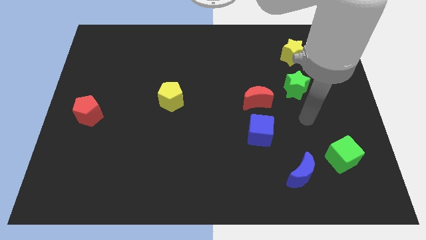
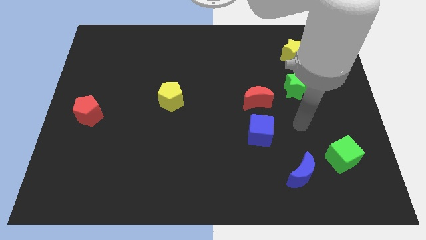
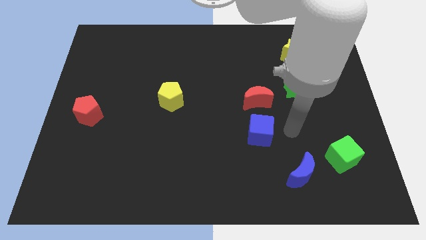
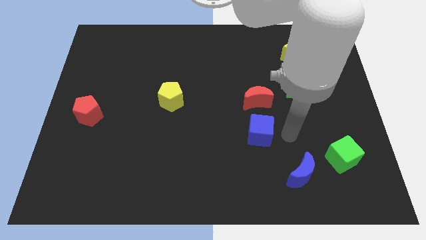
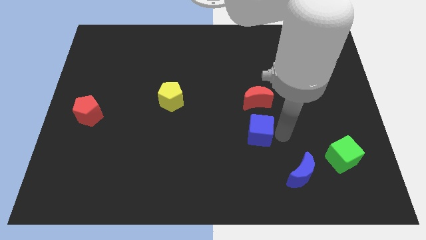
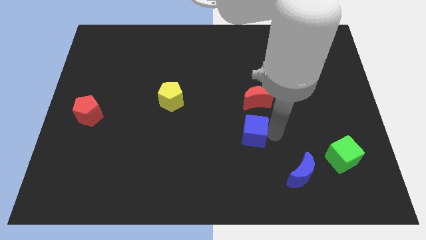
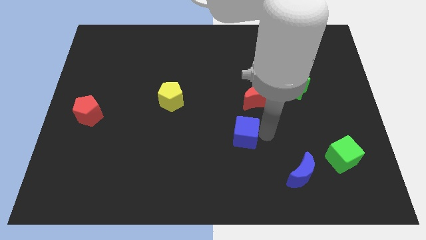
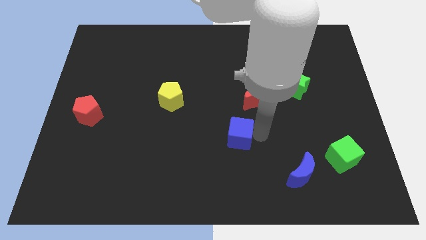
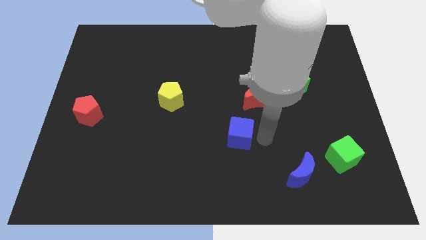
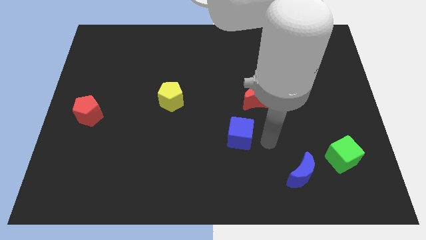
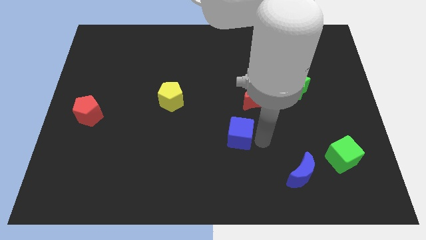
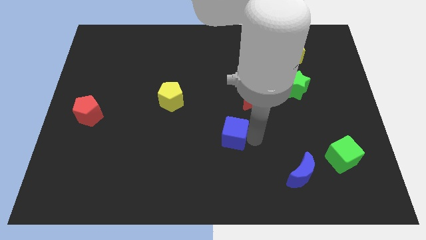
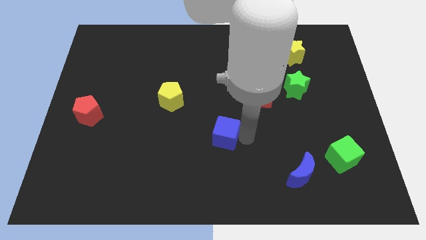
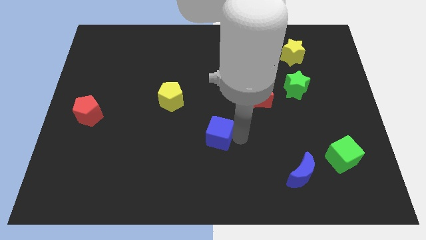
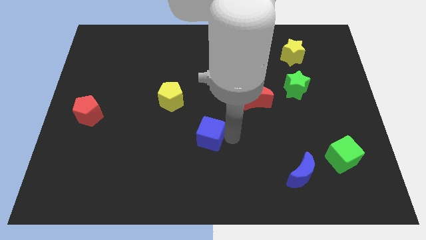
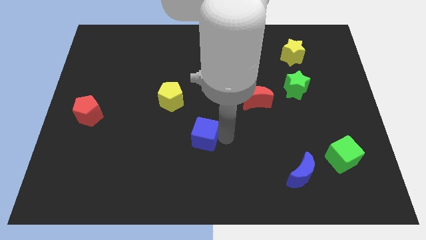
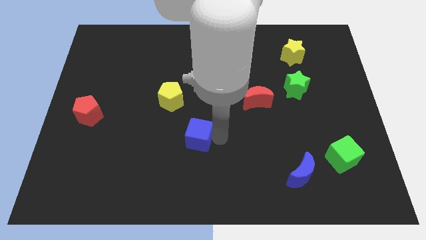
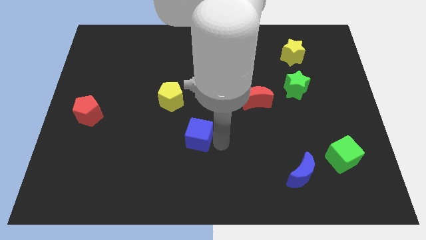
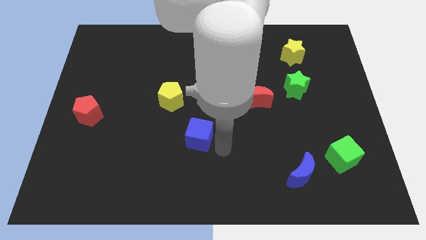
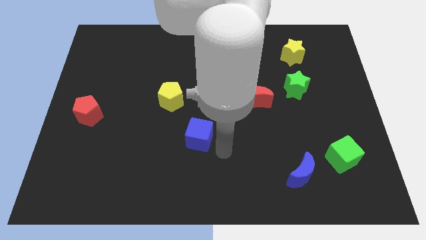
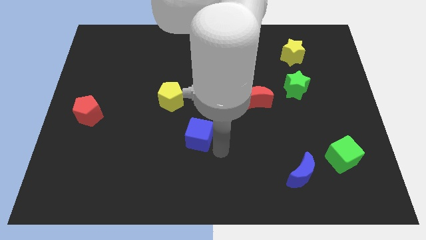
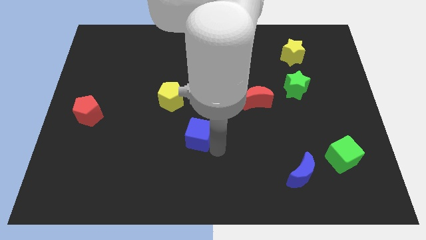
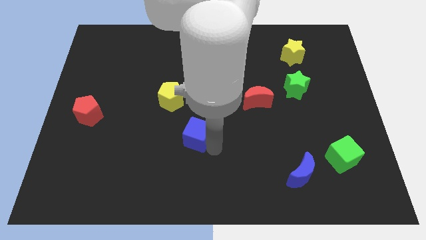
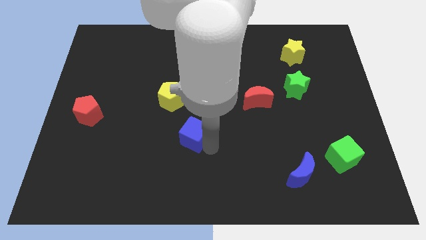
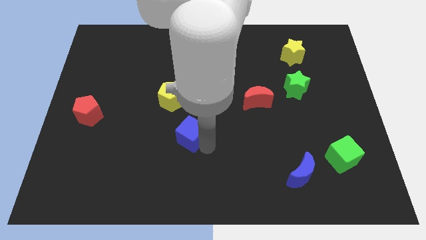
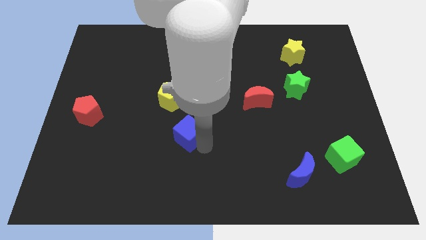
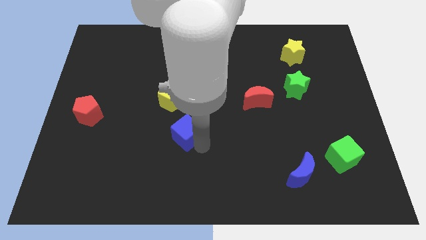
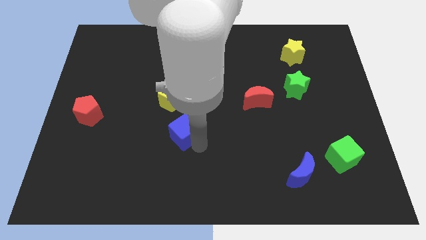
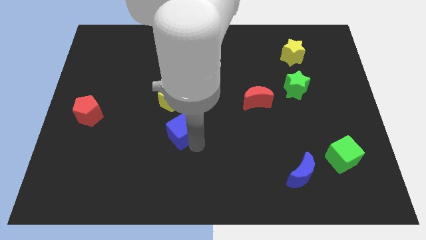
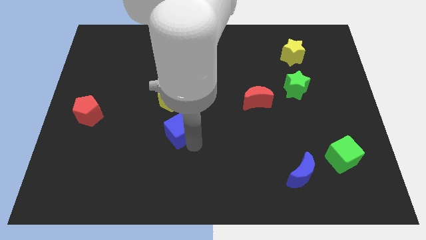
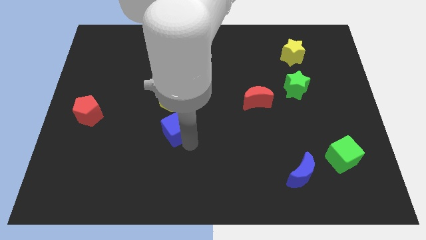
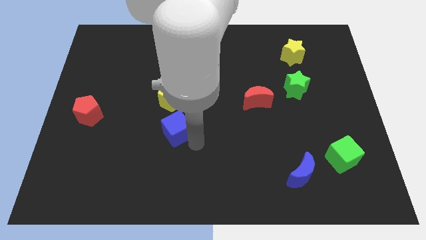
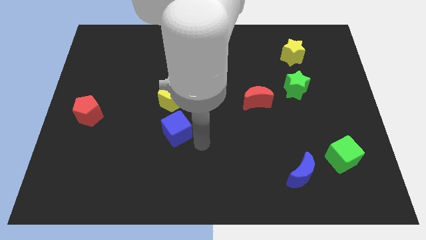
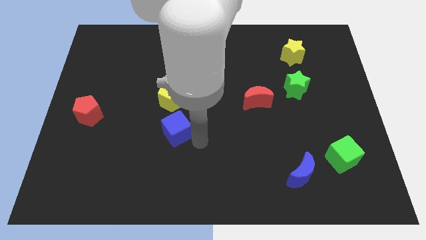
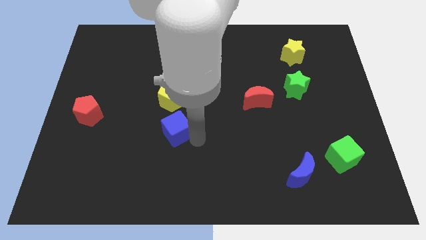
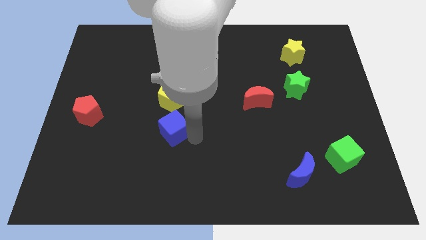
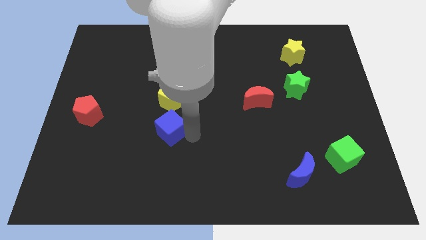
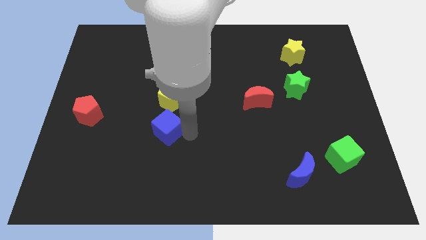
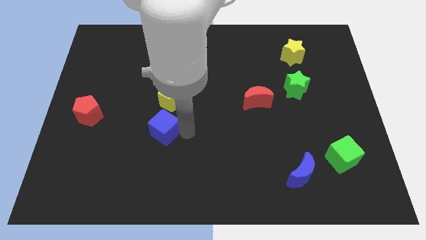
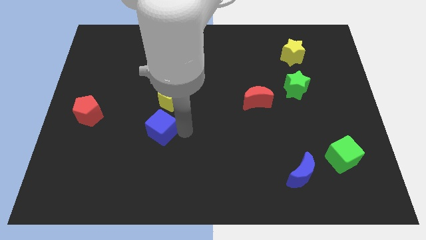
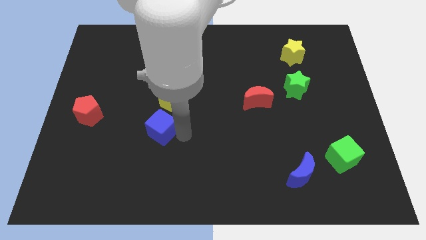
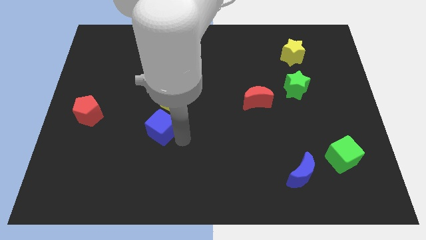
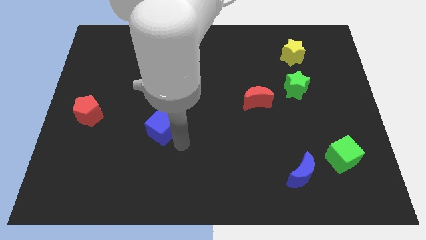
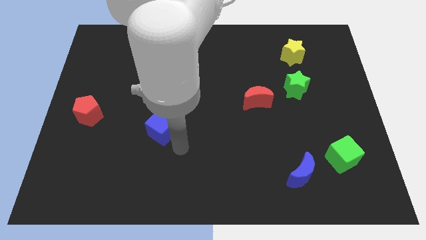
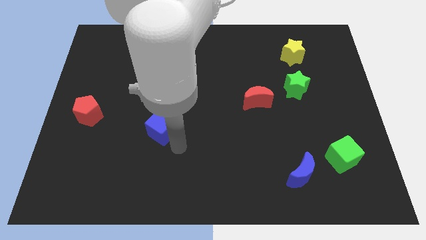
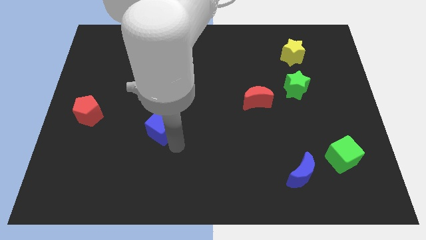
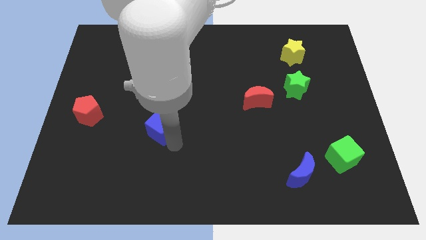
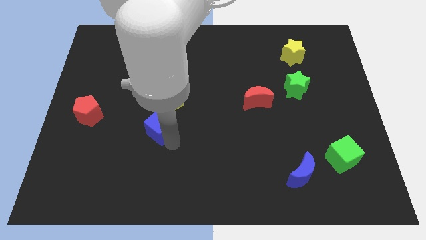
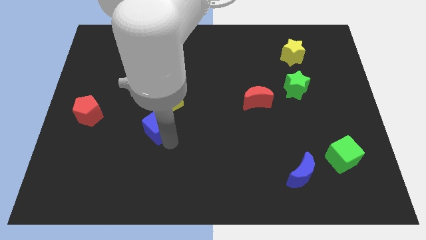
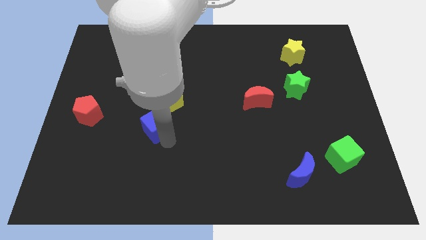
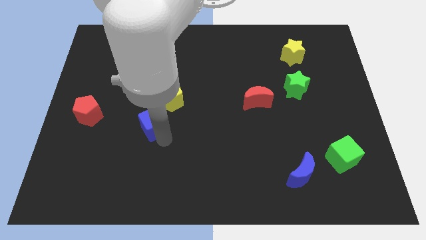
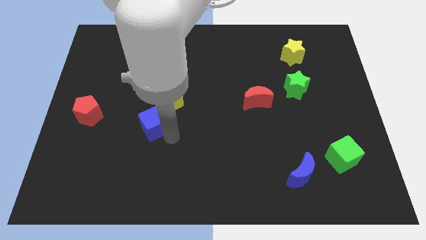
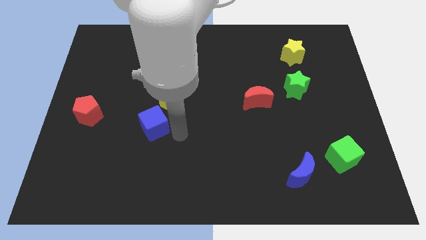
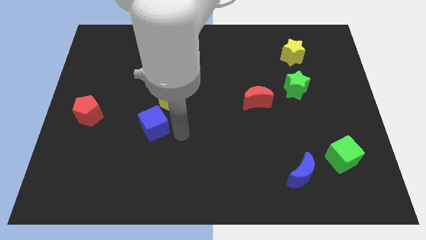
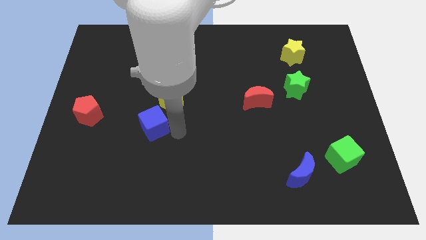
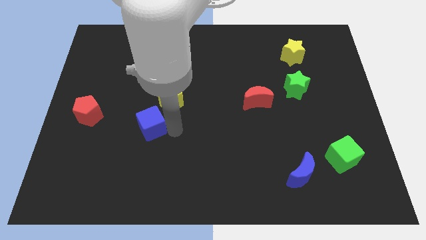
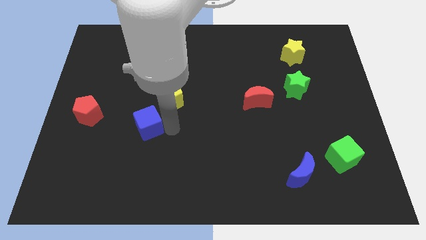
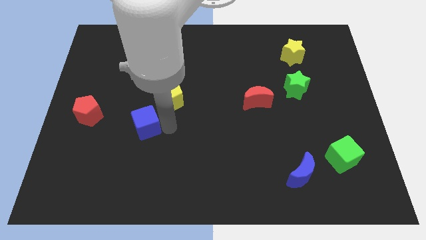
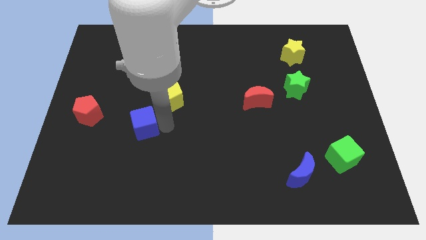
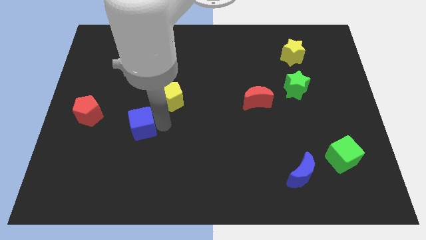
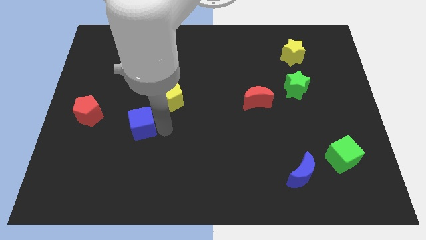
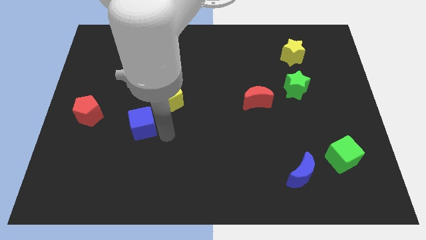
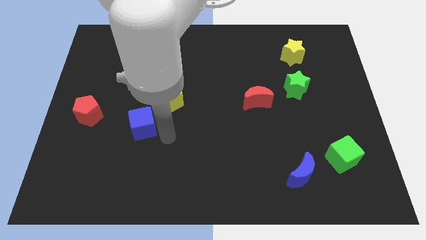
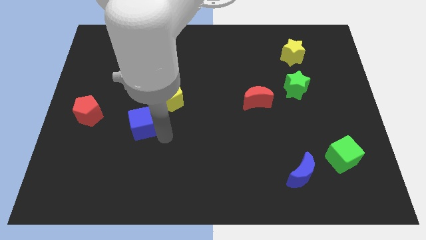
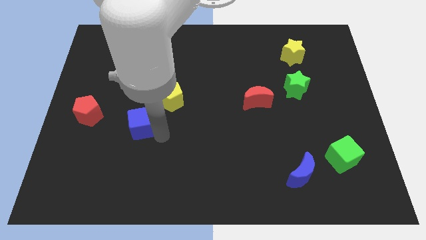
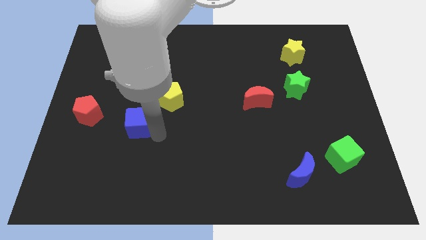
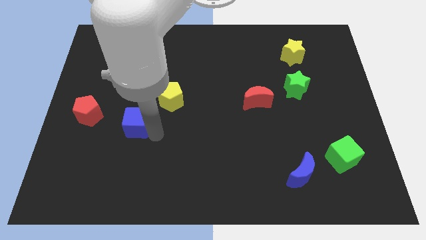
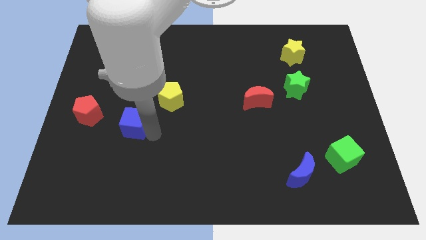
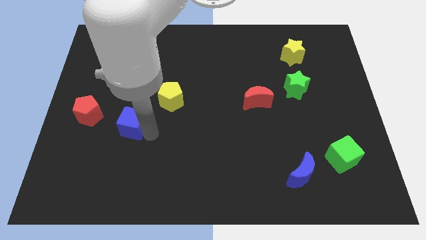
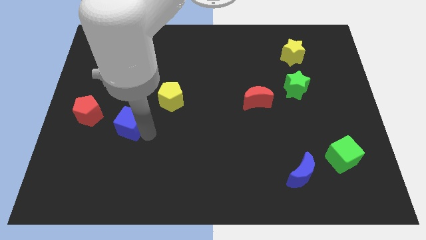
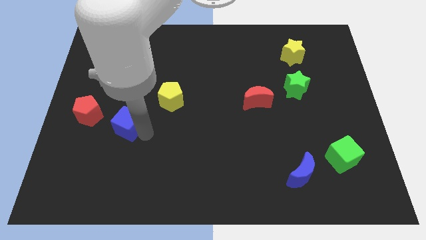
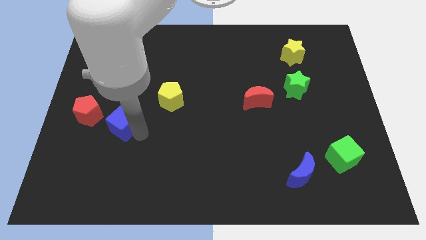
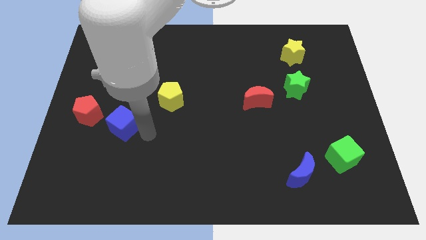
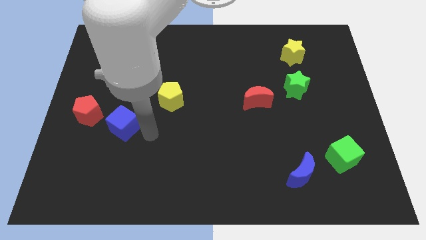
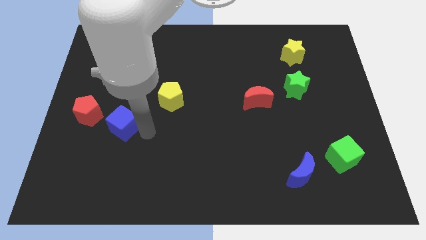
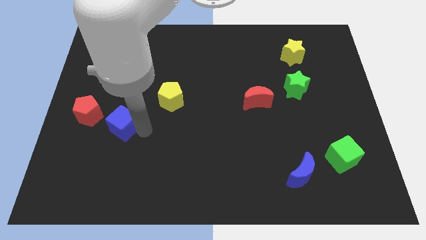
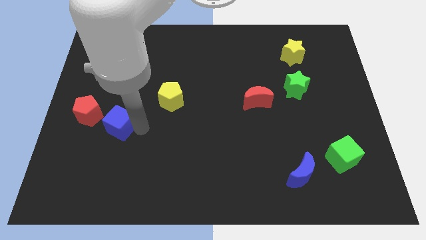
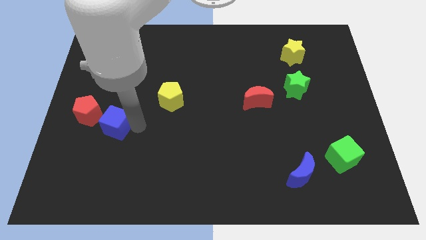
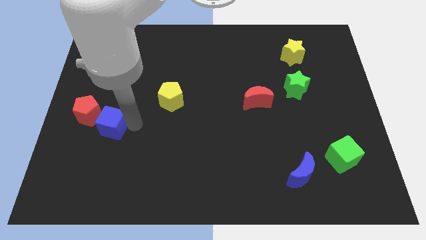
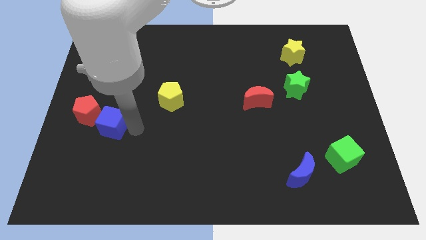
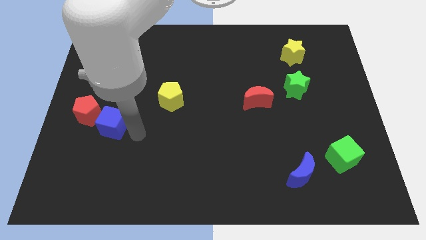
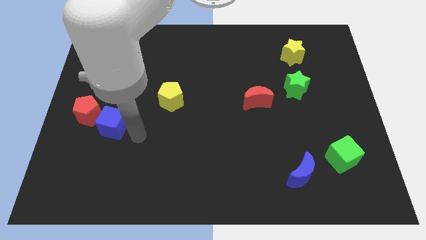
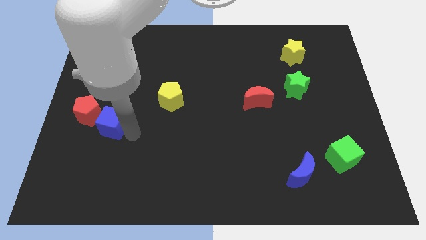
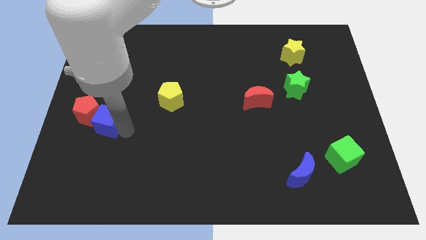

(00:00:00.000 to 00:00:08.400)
move the blue cube close to the red pentagon
